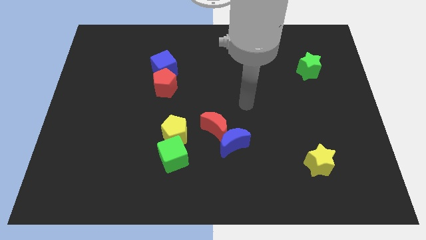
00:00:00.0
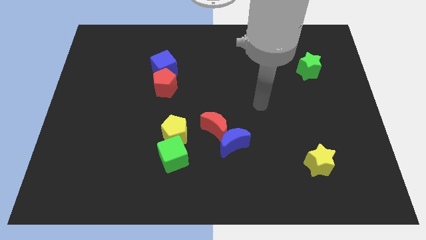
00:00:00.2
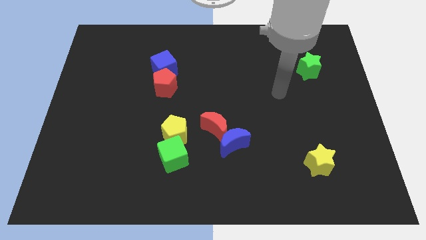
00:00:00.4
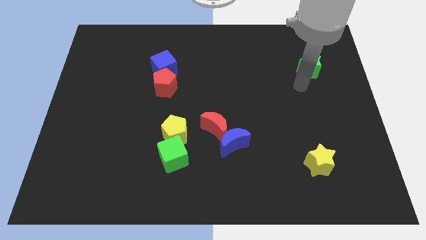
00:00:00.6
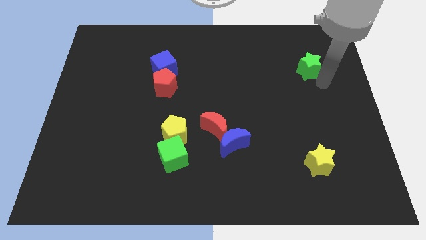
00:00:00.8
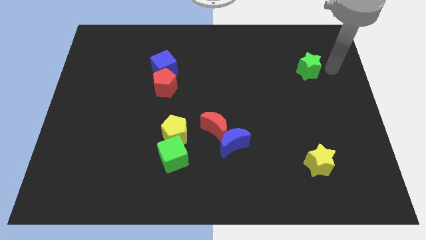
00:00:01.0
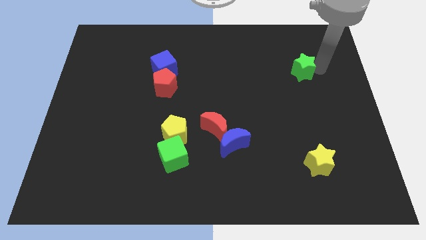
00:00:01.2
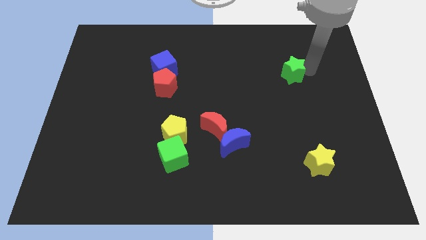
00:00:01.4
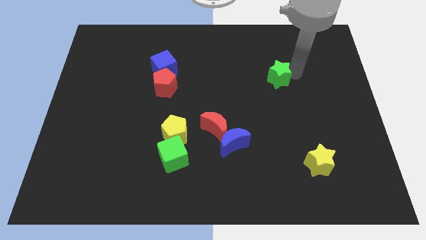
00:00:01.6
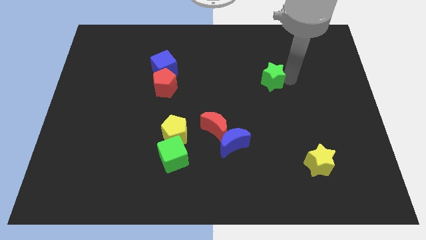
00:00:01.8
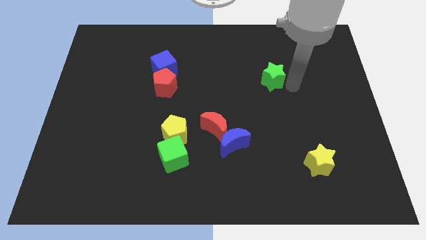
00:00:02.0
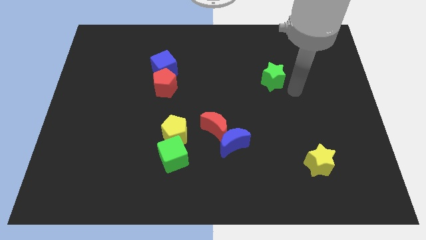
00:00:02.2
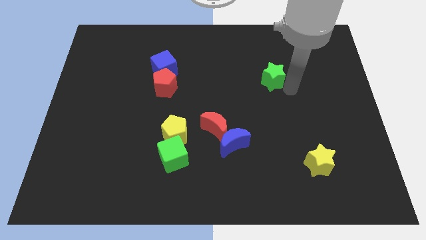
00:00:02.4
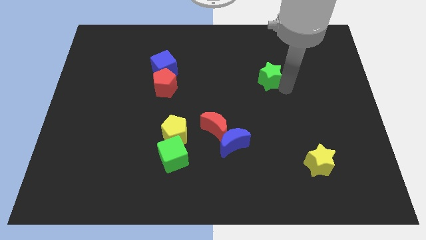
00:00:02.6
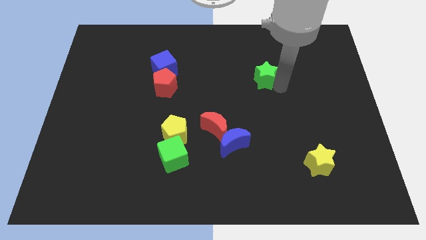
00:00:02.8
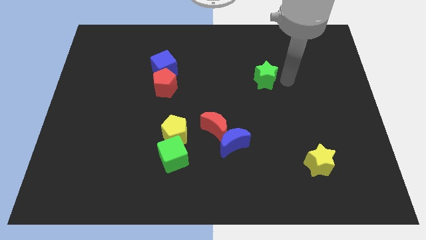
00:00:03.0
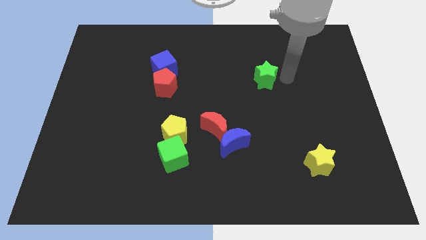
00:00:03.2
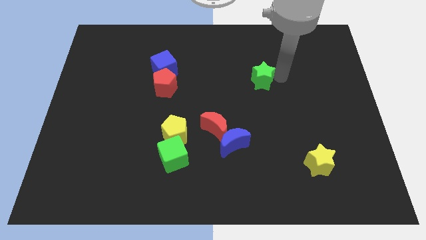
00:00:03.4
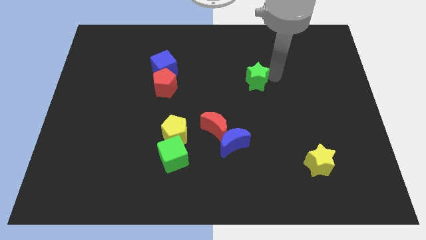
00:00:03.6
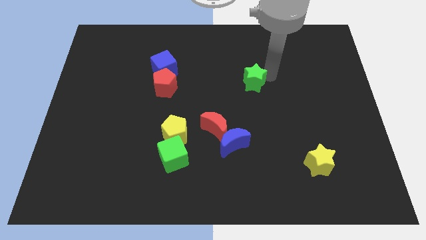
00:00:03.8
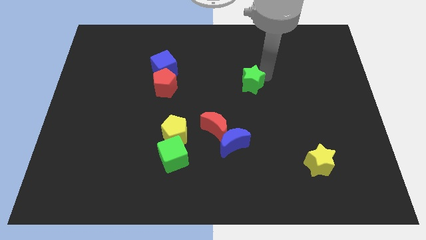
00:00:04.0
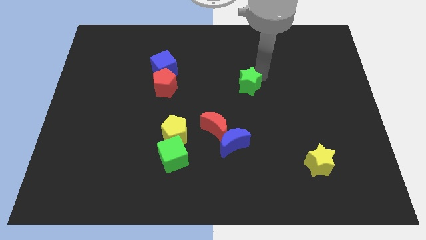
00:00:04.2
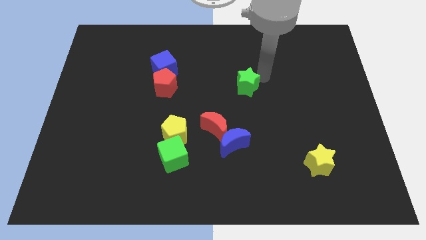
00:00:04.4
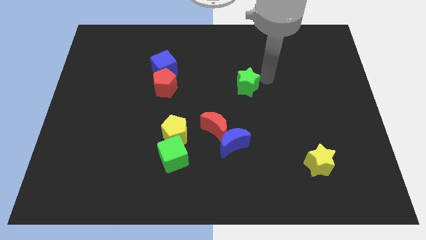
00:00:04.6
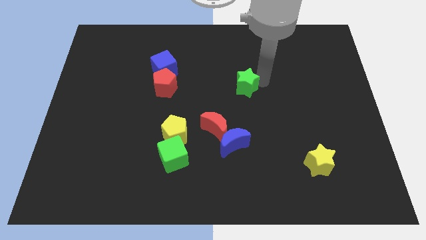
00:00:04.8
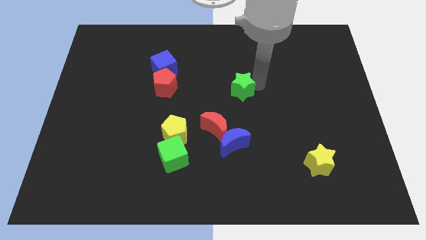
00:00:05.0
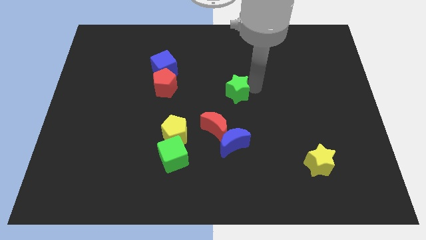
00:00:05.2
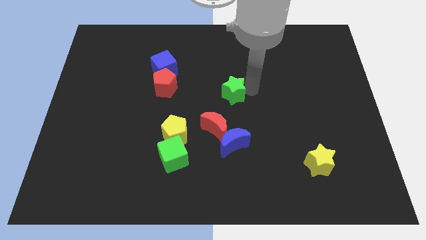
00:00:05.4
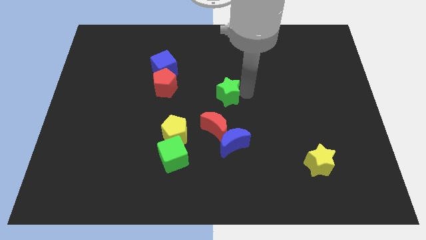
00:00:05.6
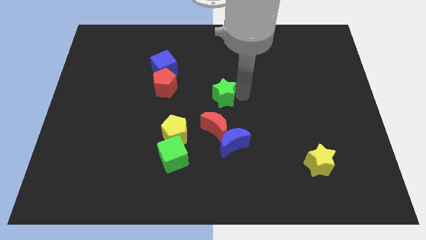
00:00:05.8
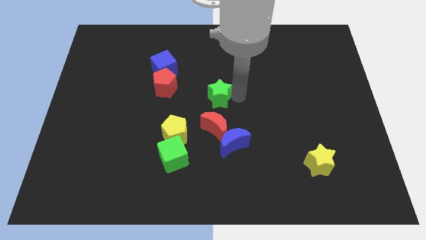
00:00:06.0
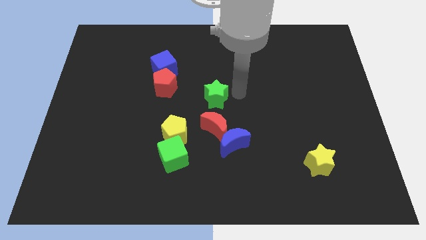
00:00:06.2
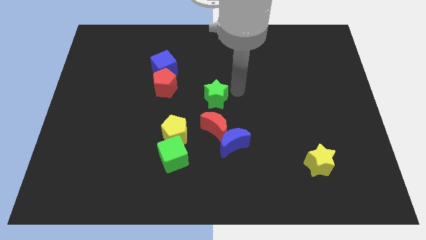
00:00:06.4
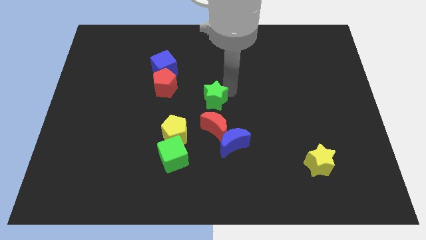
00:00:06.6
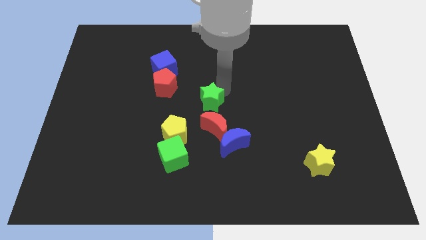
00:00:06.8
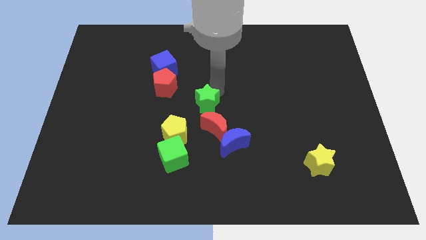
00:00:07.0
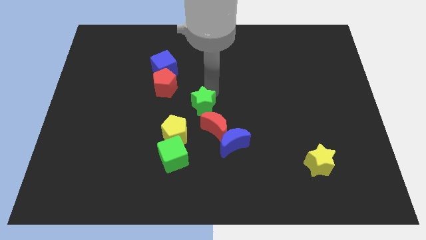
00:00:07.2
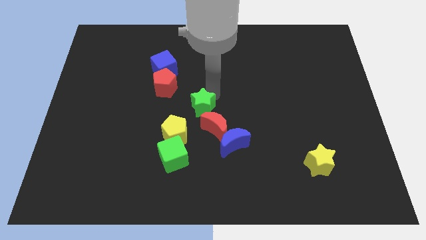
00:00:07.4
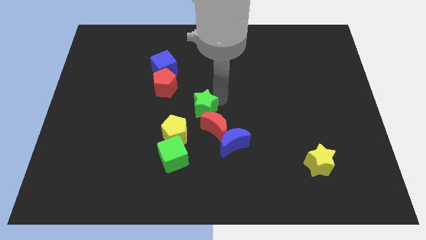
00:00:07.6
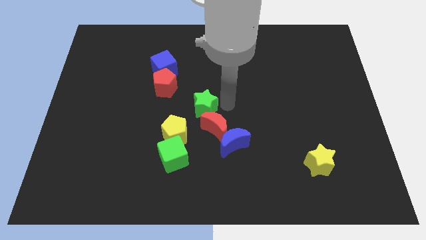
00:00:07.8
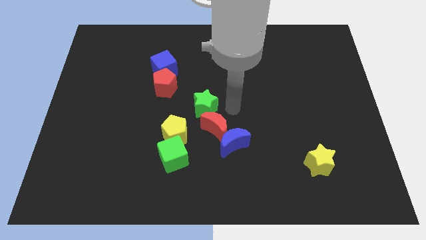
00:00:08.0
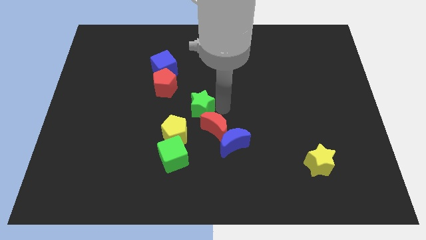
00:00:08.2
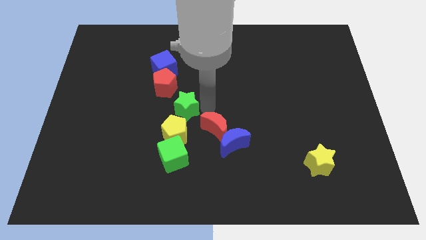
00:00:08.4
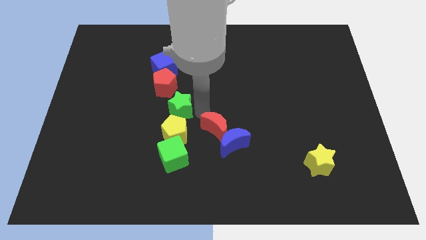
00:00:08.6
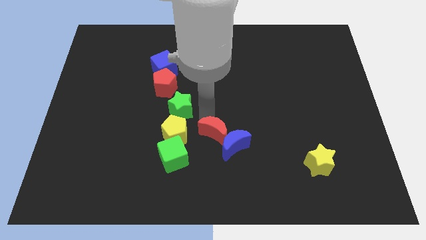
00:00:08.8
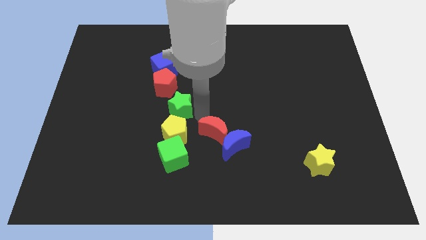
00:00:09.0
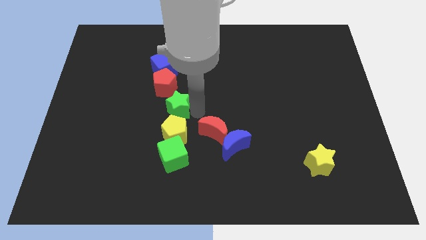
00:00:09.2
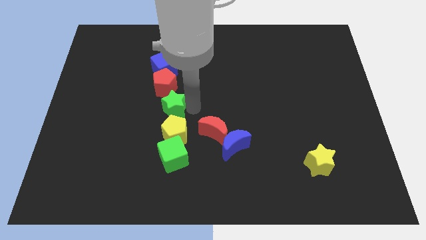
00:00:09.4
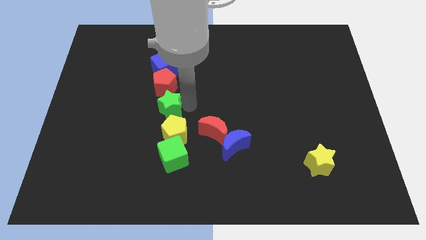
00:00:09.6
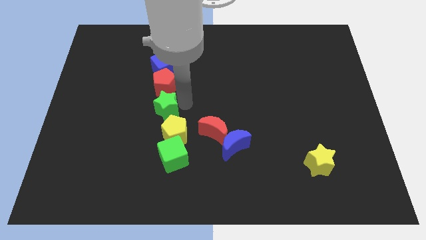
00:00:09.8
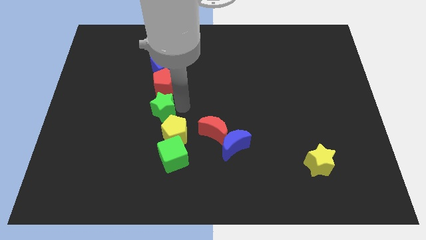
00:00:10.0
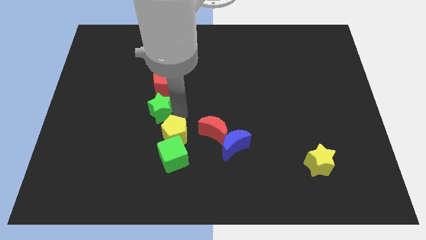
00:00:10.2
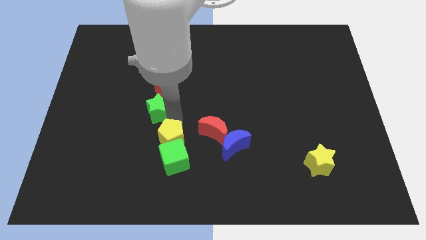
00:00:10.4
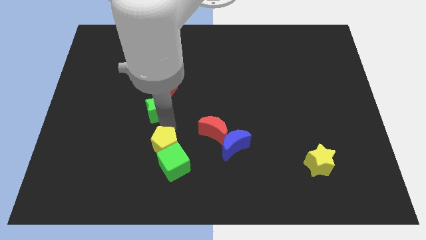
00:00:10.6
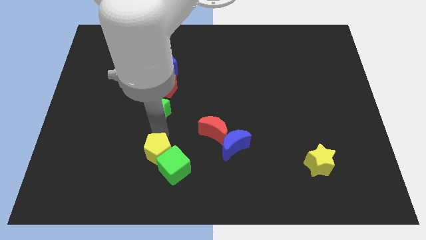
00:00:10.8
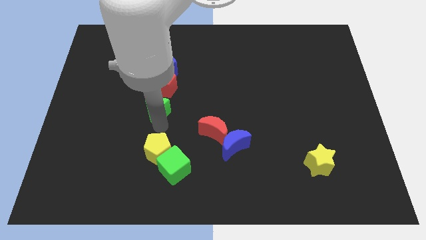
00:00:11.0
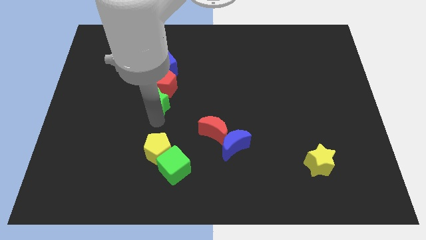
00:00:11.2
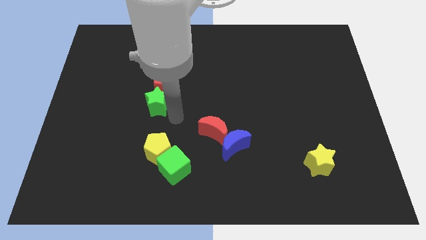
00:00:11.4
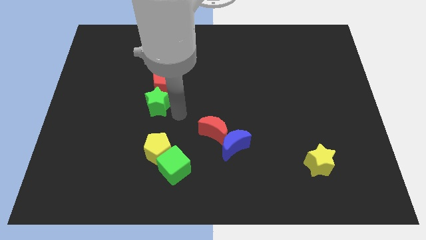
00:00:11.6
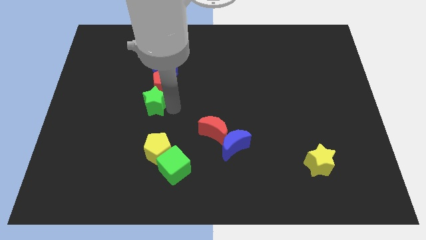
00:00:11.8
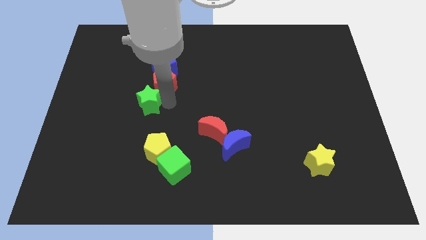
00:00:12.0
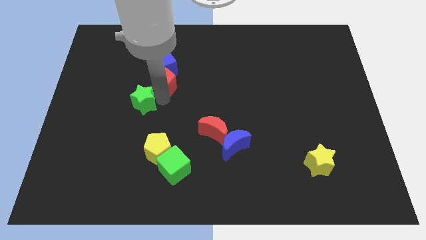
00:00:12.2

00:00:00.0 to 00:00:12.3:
move the green star to the left side of the red pentagon
